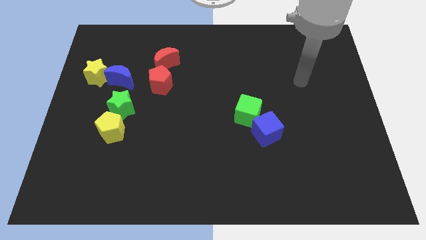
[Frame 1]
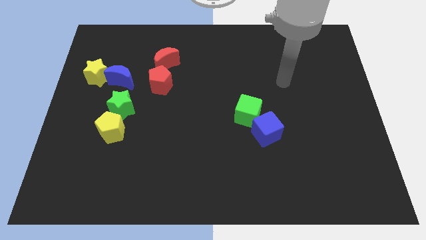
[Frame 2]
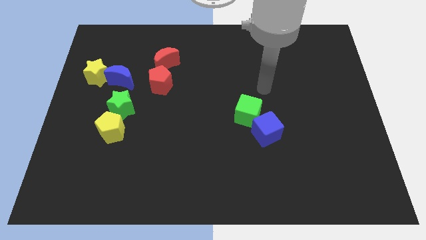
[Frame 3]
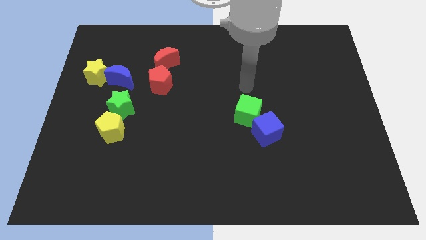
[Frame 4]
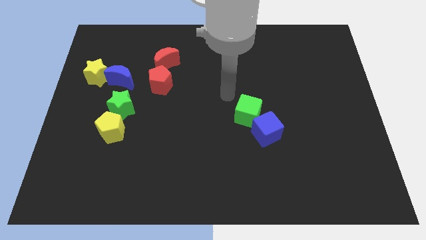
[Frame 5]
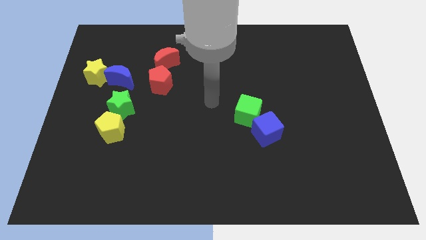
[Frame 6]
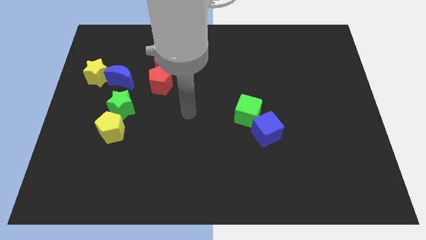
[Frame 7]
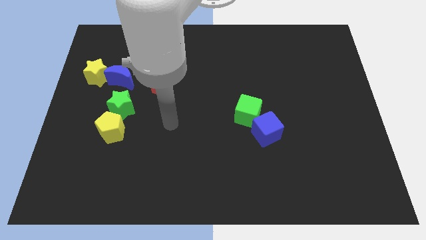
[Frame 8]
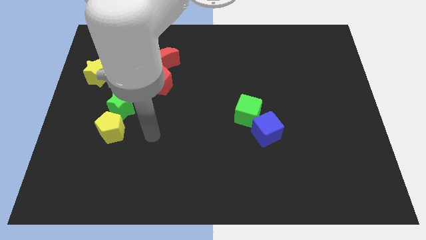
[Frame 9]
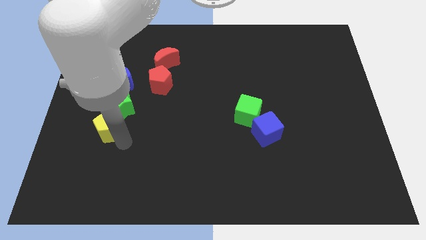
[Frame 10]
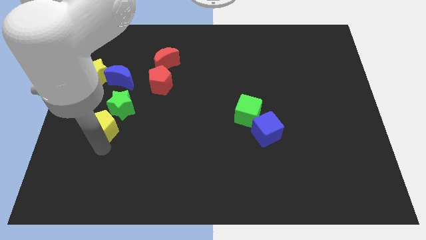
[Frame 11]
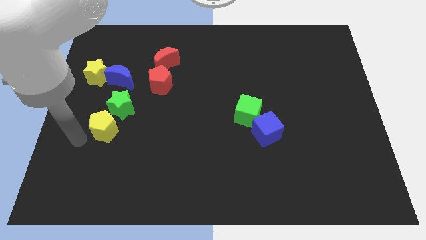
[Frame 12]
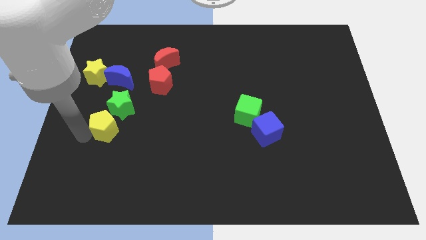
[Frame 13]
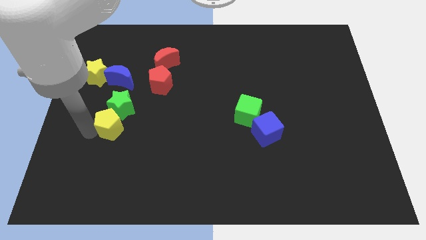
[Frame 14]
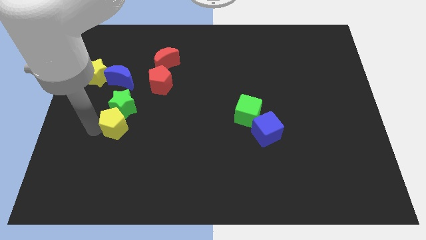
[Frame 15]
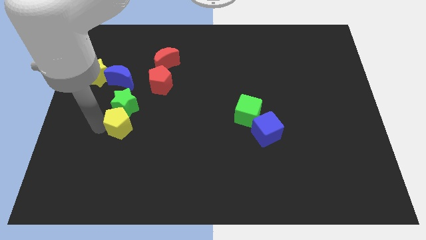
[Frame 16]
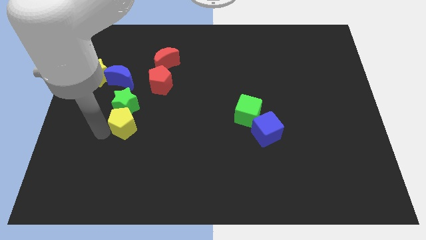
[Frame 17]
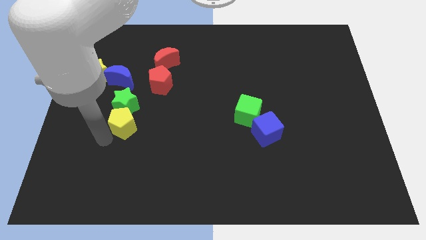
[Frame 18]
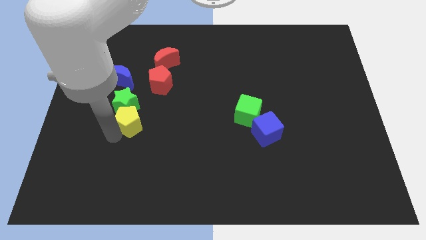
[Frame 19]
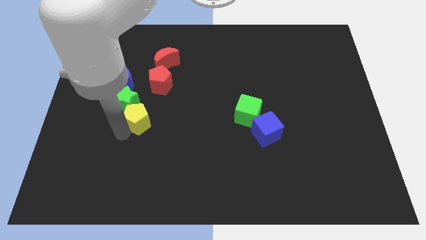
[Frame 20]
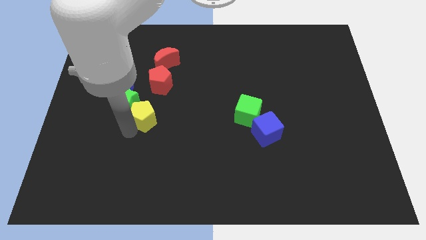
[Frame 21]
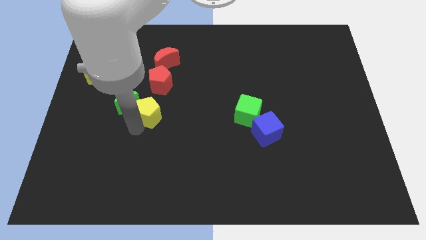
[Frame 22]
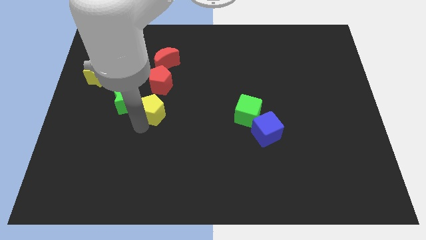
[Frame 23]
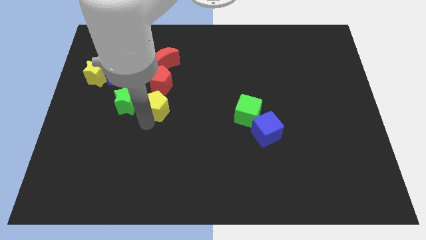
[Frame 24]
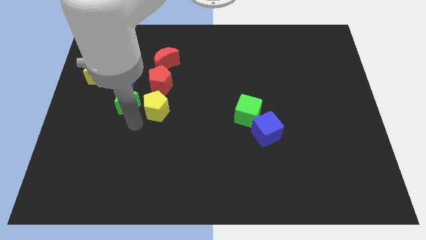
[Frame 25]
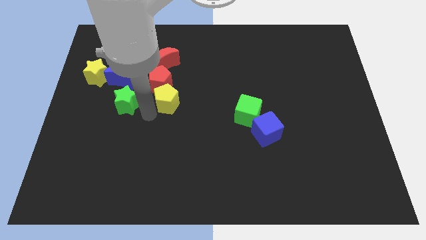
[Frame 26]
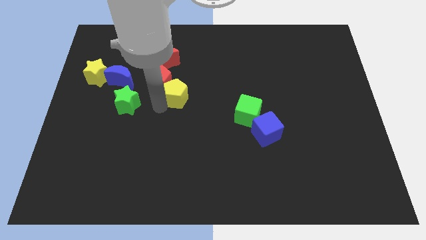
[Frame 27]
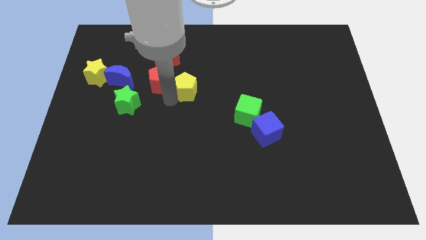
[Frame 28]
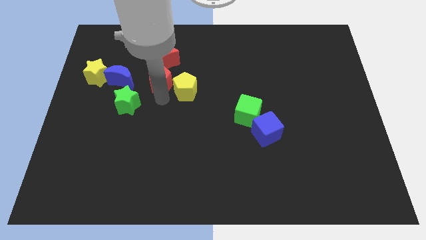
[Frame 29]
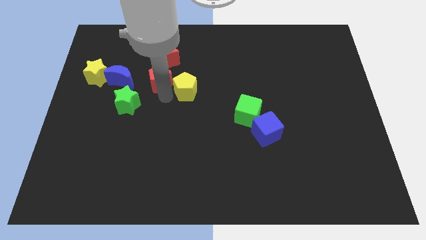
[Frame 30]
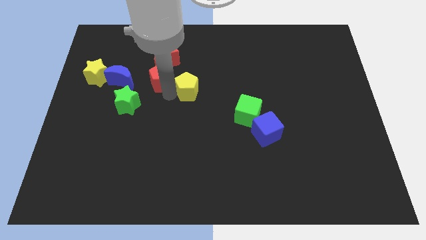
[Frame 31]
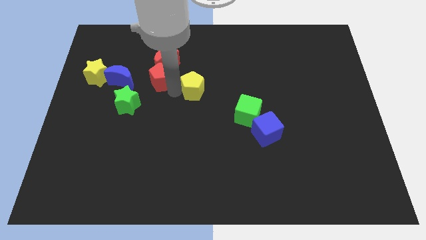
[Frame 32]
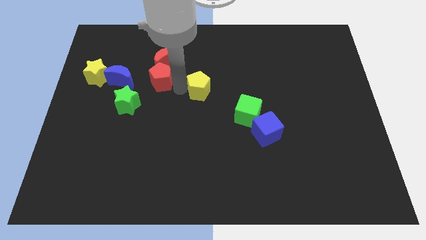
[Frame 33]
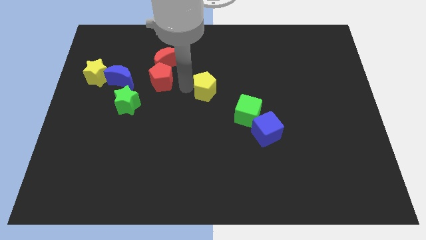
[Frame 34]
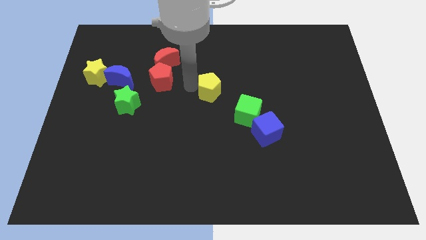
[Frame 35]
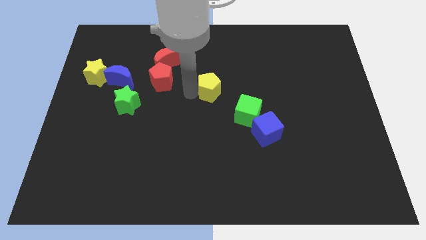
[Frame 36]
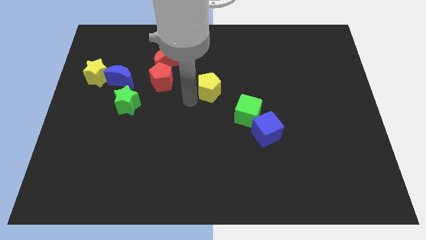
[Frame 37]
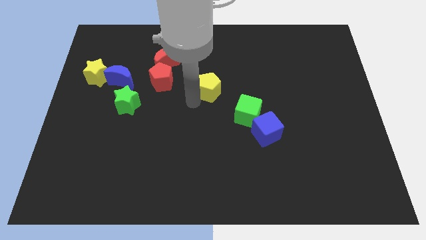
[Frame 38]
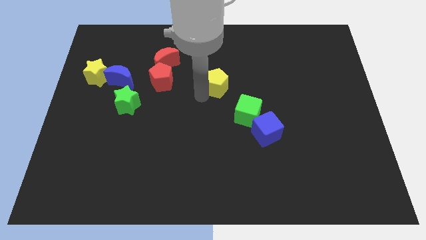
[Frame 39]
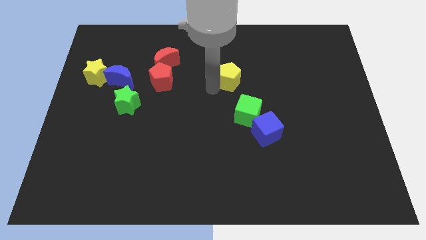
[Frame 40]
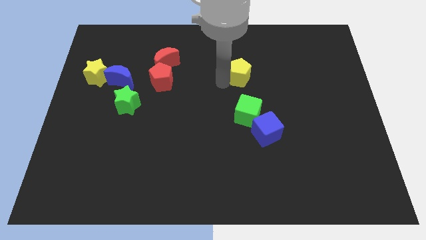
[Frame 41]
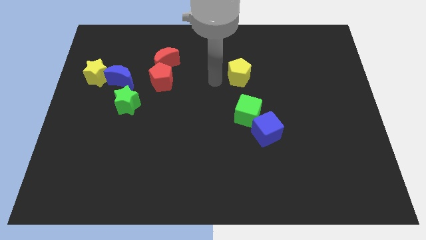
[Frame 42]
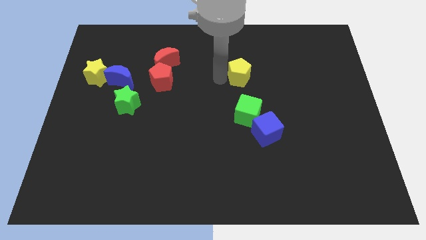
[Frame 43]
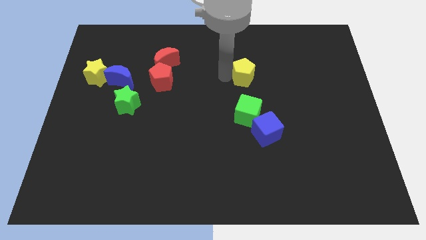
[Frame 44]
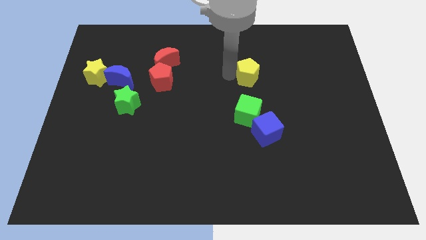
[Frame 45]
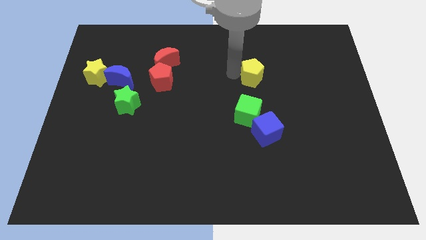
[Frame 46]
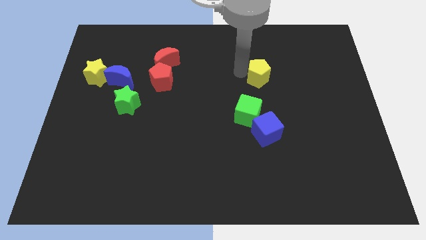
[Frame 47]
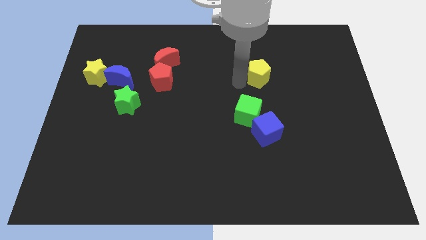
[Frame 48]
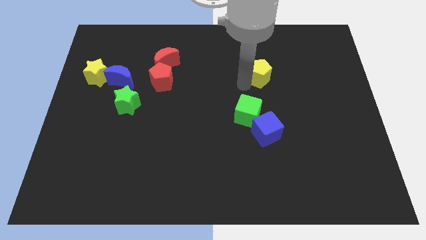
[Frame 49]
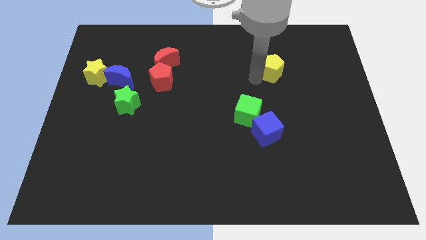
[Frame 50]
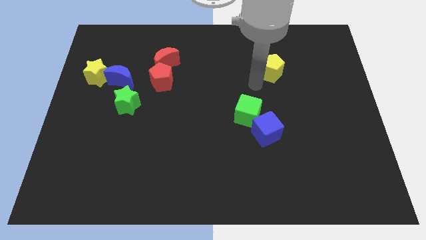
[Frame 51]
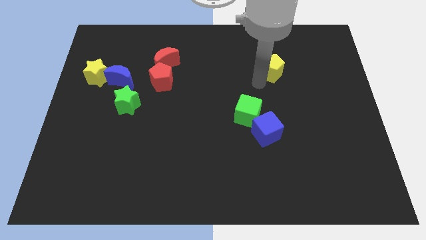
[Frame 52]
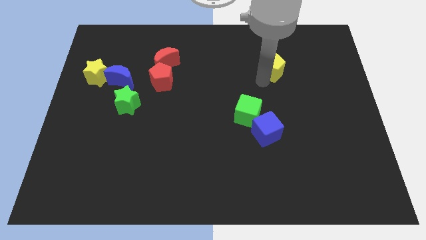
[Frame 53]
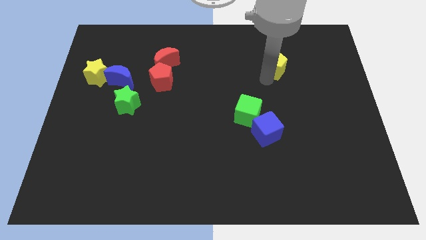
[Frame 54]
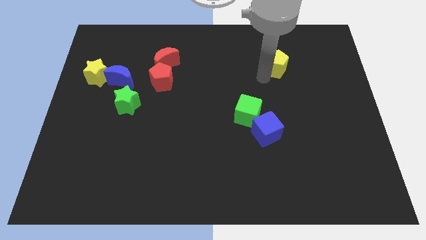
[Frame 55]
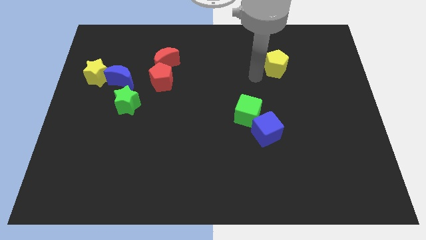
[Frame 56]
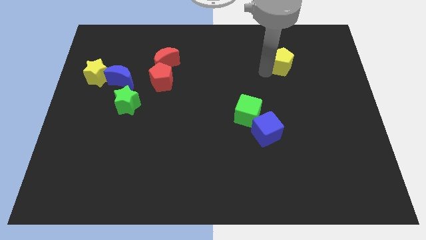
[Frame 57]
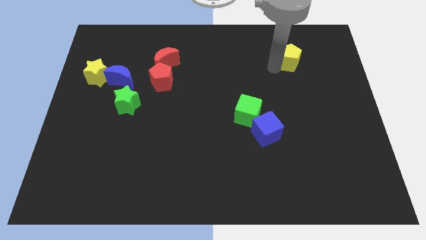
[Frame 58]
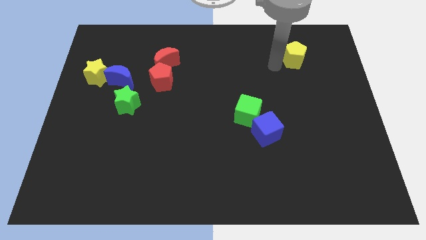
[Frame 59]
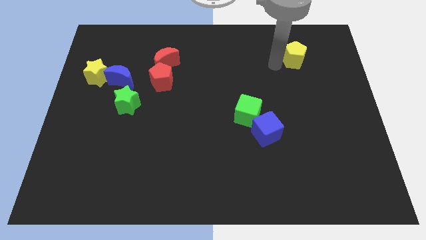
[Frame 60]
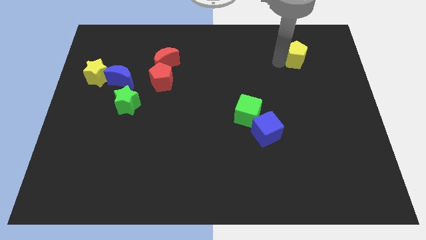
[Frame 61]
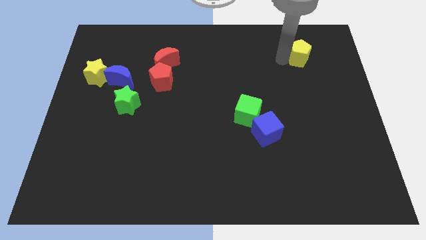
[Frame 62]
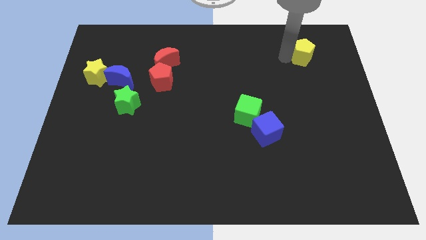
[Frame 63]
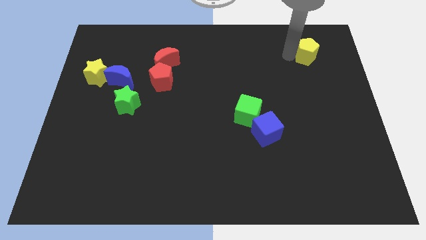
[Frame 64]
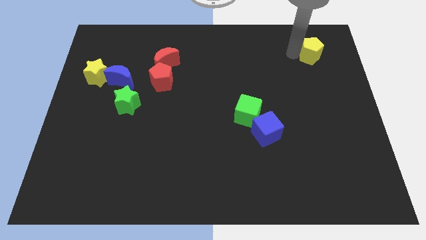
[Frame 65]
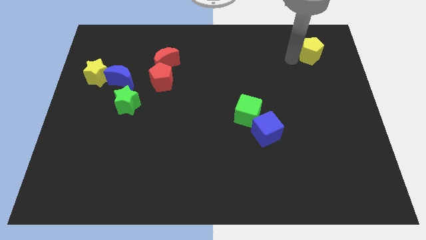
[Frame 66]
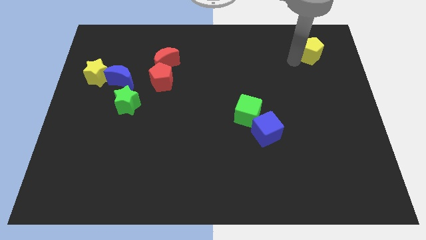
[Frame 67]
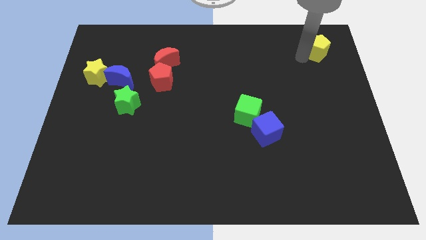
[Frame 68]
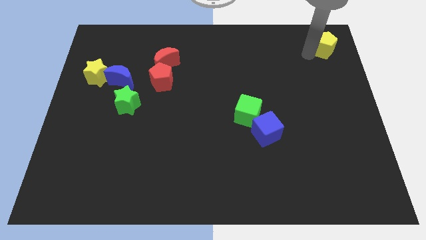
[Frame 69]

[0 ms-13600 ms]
slide the yellow pentagon to the top right corner
